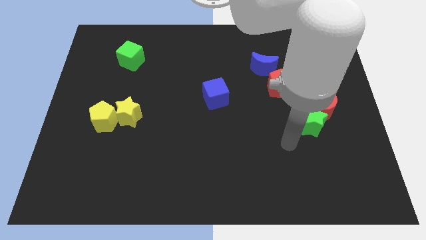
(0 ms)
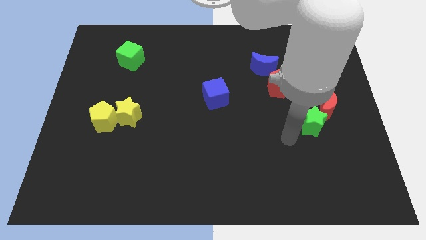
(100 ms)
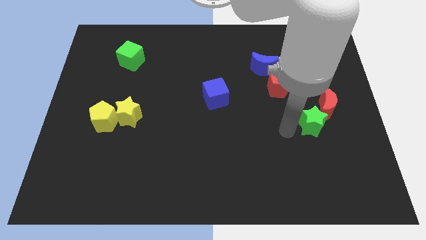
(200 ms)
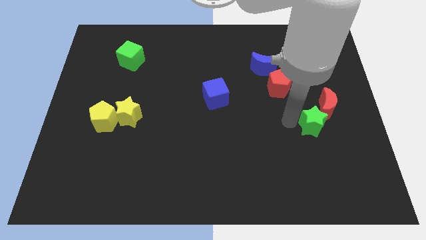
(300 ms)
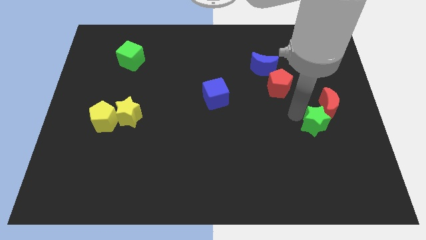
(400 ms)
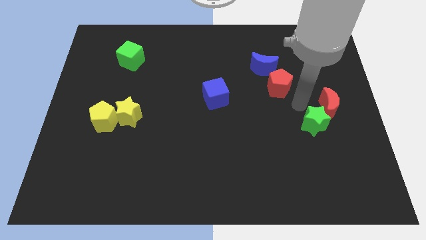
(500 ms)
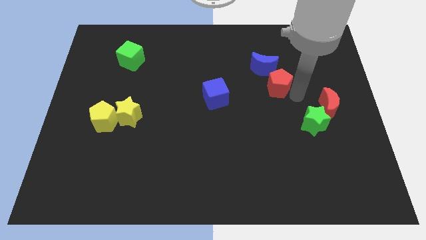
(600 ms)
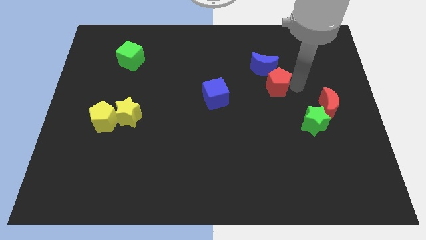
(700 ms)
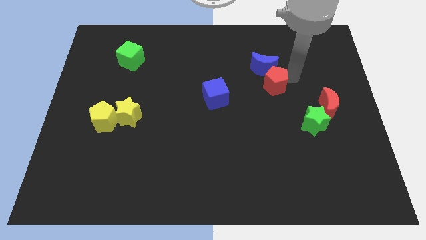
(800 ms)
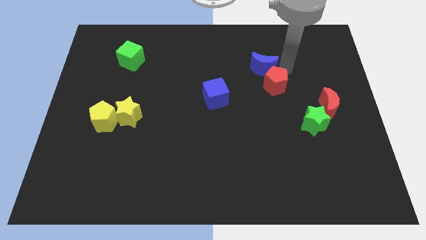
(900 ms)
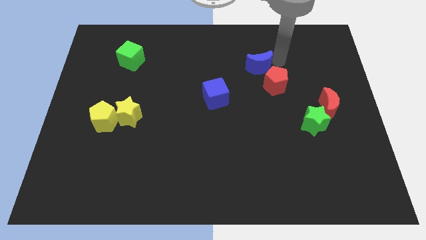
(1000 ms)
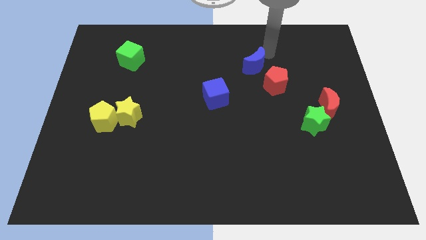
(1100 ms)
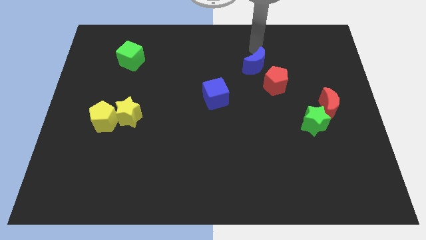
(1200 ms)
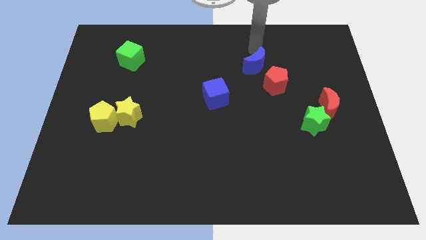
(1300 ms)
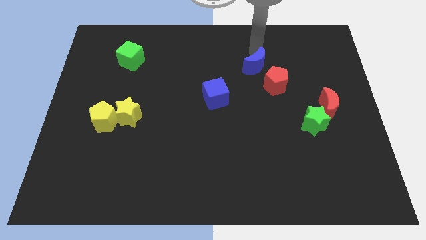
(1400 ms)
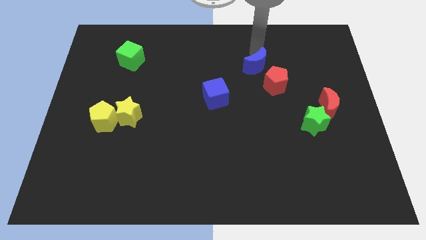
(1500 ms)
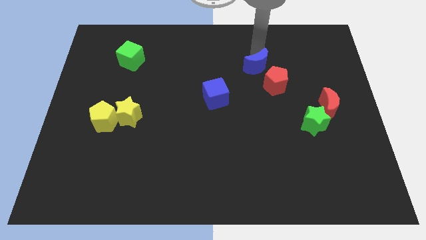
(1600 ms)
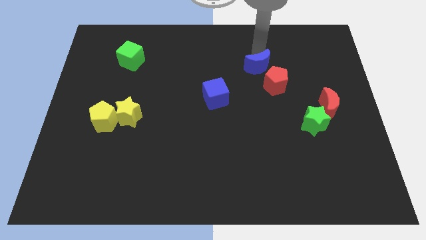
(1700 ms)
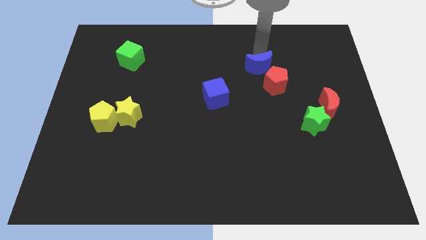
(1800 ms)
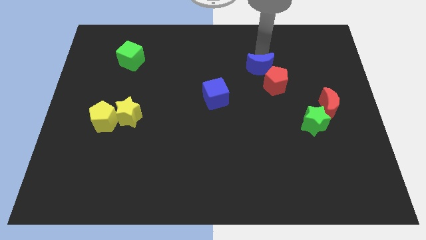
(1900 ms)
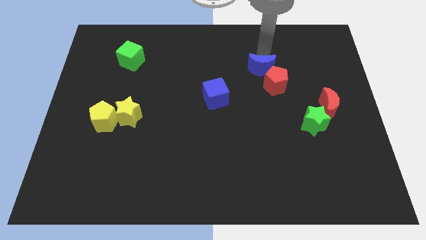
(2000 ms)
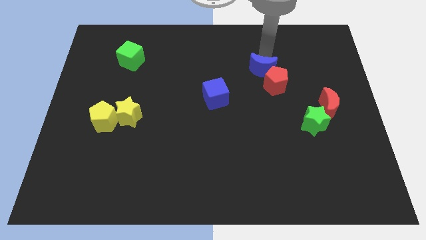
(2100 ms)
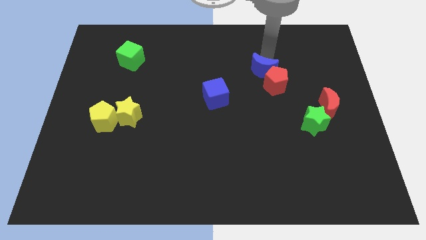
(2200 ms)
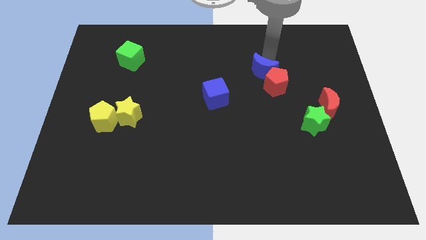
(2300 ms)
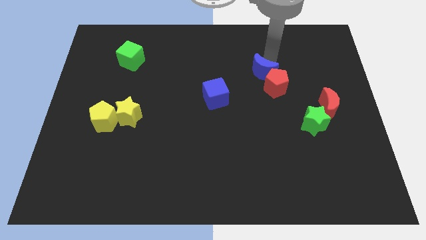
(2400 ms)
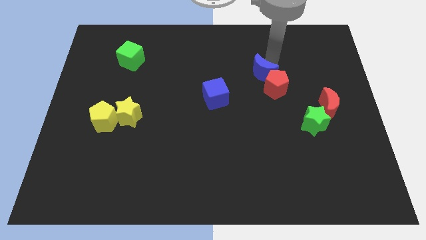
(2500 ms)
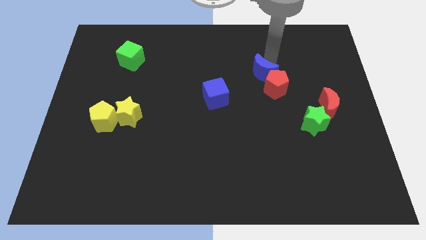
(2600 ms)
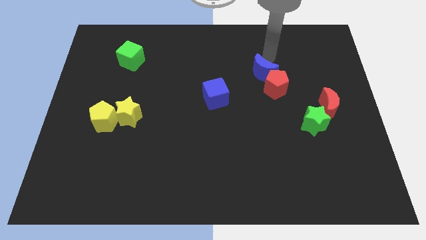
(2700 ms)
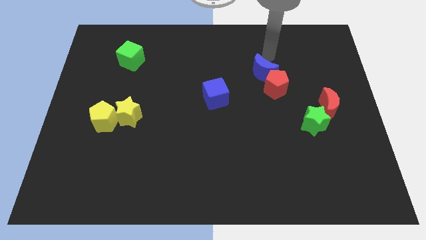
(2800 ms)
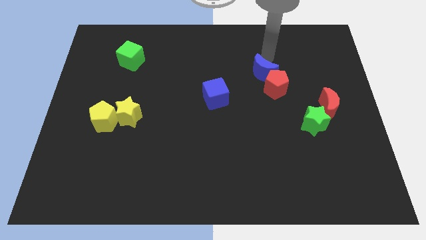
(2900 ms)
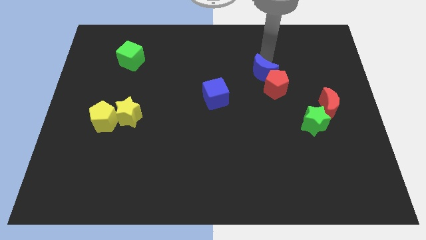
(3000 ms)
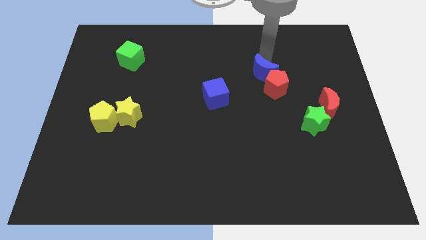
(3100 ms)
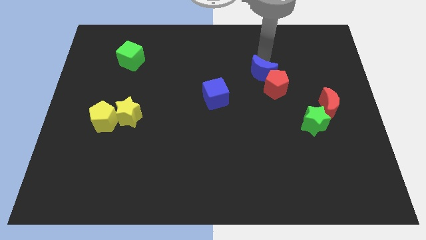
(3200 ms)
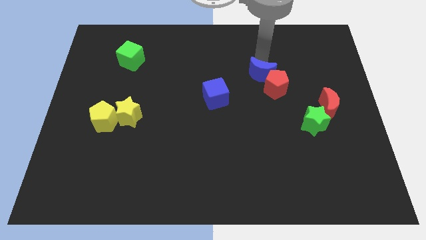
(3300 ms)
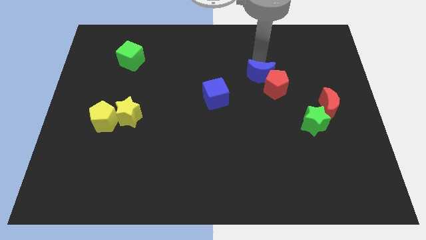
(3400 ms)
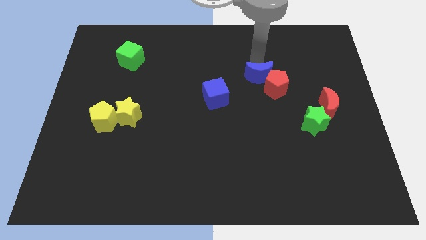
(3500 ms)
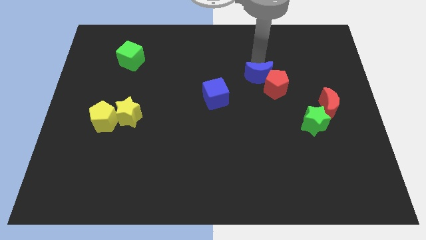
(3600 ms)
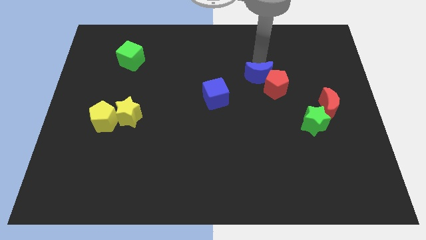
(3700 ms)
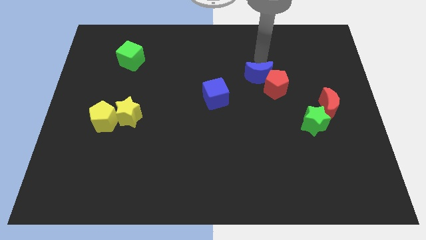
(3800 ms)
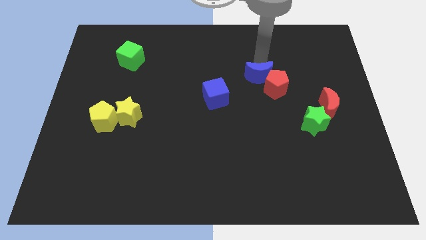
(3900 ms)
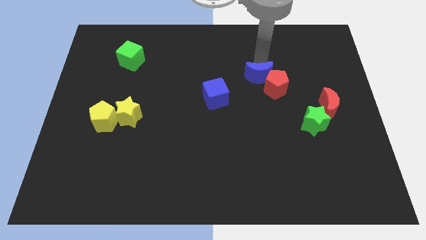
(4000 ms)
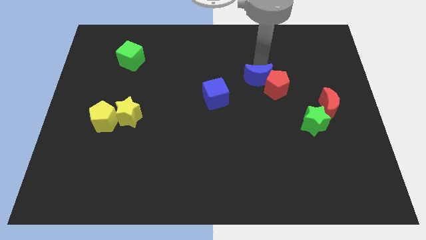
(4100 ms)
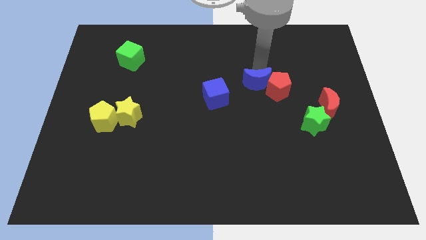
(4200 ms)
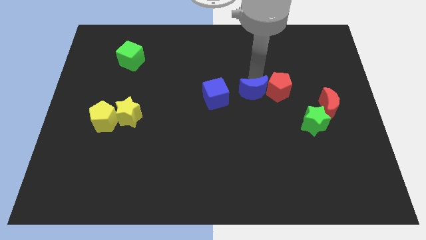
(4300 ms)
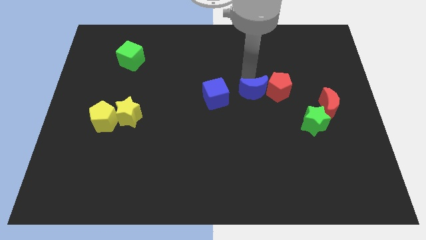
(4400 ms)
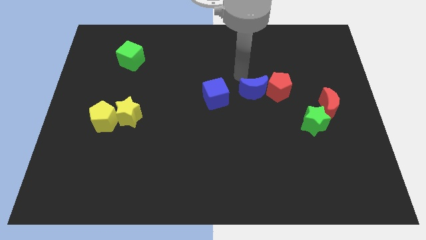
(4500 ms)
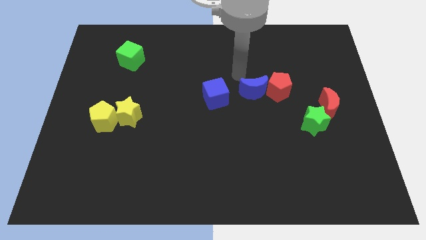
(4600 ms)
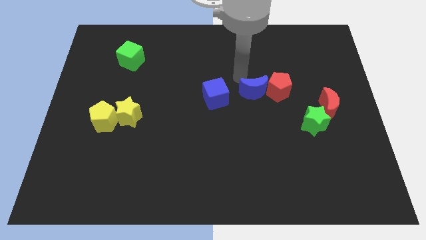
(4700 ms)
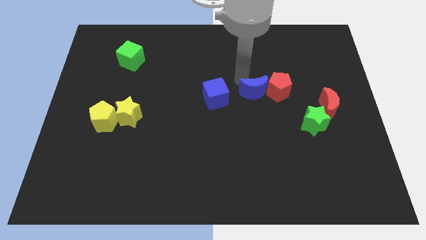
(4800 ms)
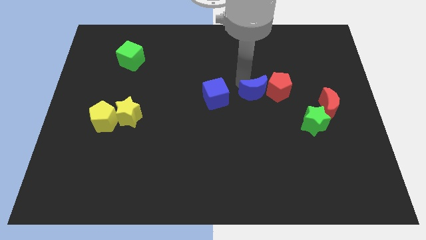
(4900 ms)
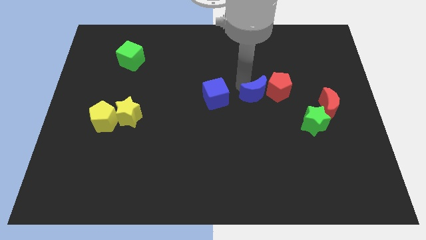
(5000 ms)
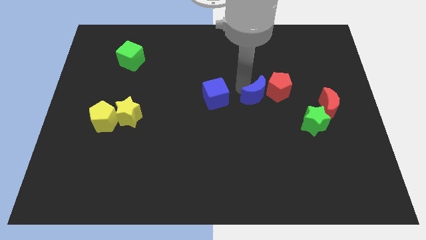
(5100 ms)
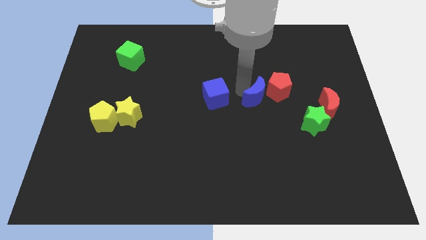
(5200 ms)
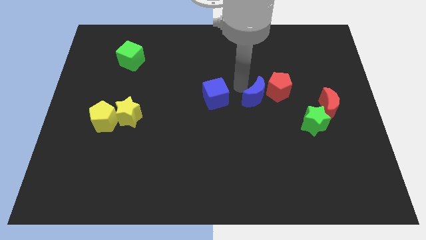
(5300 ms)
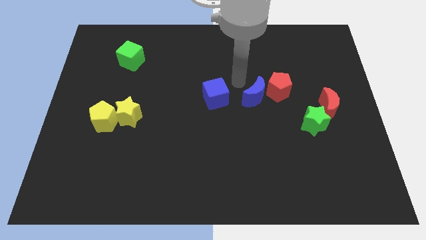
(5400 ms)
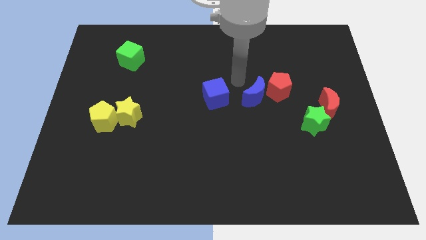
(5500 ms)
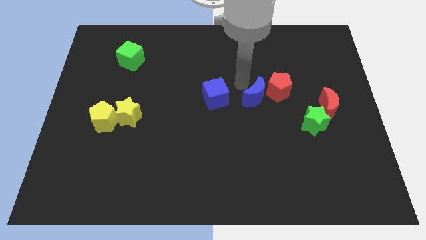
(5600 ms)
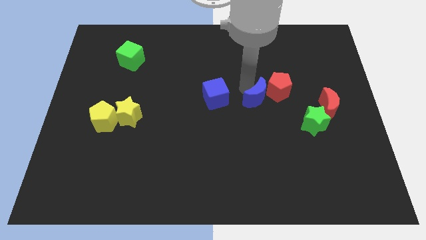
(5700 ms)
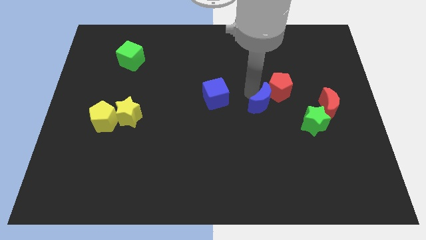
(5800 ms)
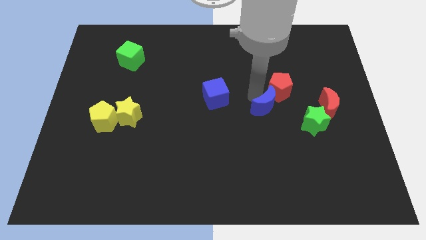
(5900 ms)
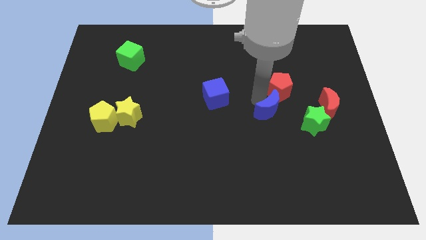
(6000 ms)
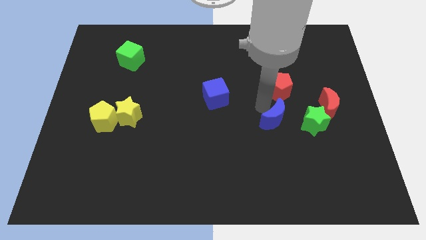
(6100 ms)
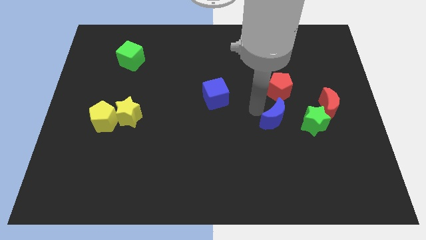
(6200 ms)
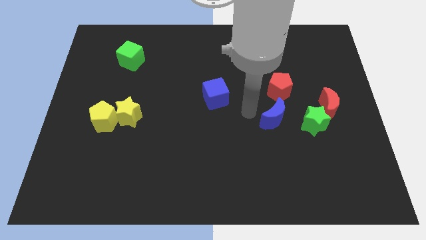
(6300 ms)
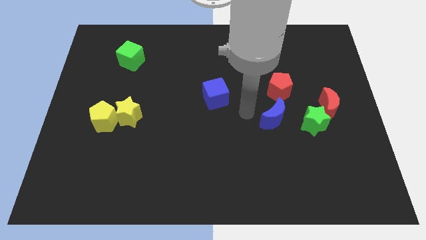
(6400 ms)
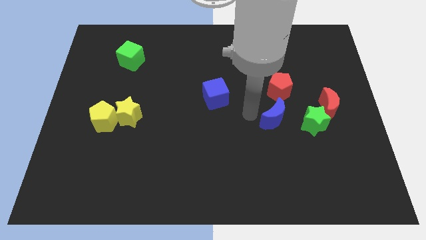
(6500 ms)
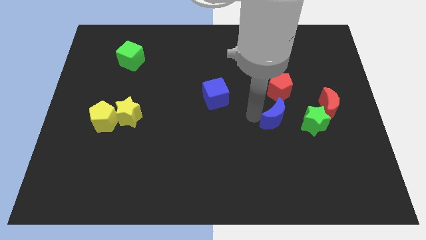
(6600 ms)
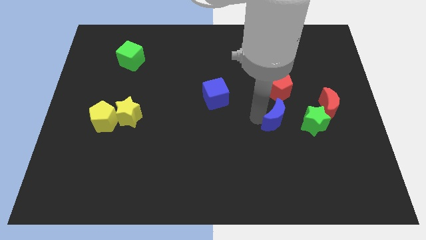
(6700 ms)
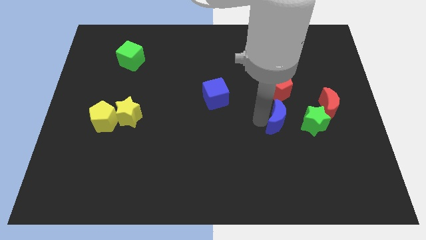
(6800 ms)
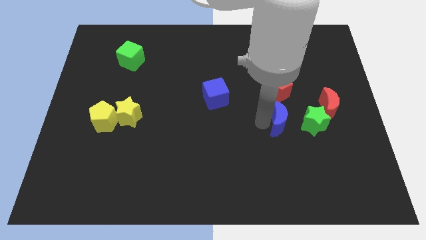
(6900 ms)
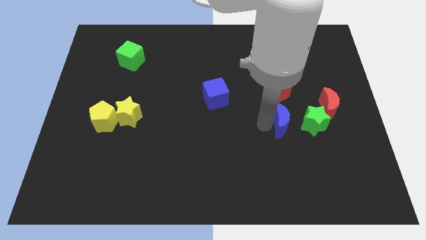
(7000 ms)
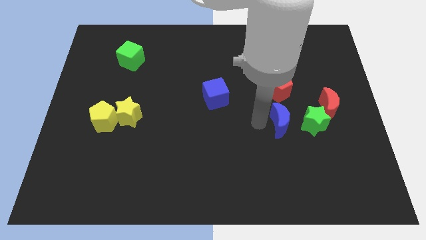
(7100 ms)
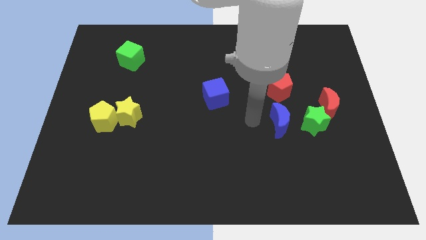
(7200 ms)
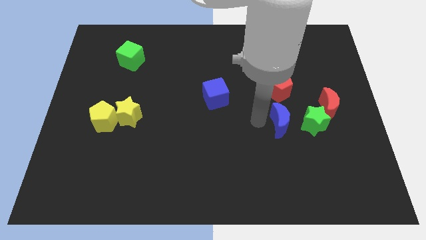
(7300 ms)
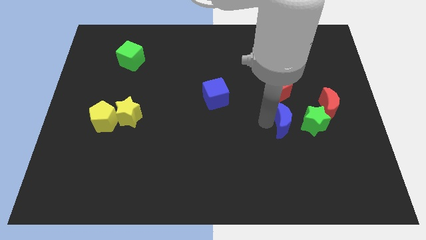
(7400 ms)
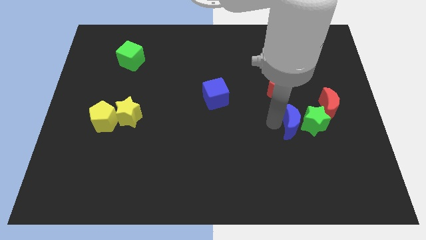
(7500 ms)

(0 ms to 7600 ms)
slide the blue moon to the bottom left side of the red moon
